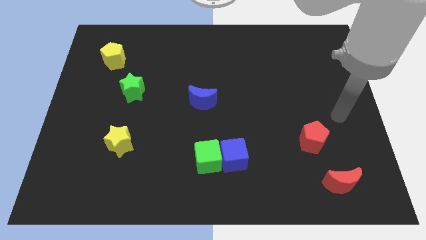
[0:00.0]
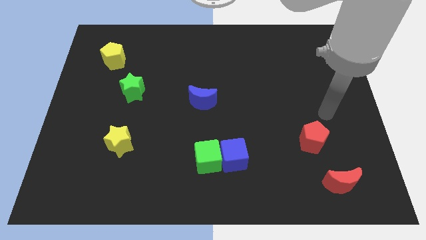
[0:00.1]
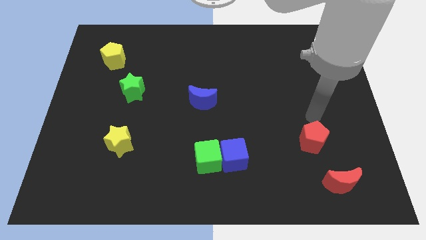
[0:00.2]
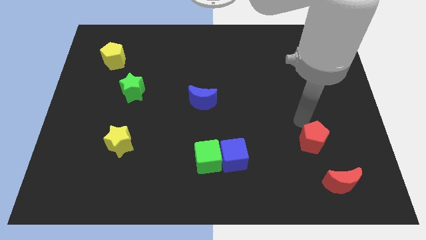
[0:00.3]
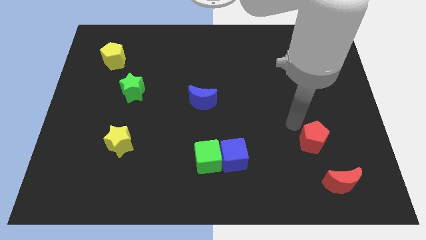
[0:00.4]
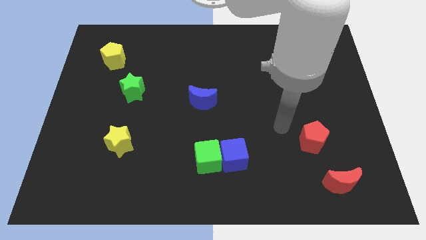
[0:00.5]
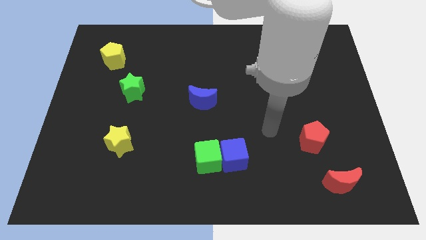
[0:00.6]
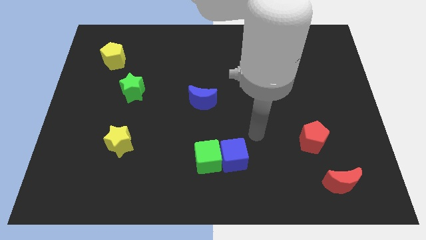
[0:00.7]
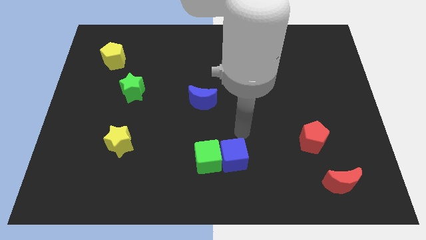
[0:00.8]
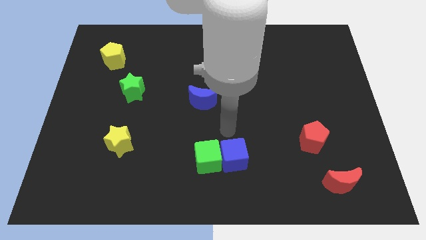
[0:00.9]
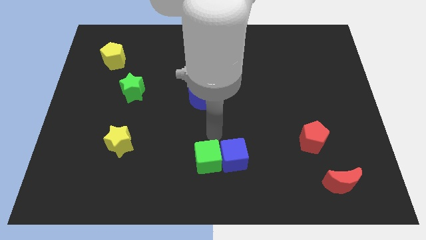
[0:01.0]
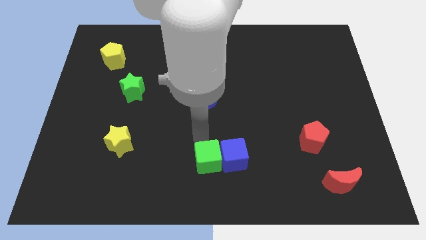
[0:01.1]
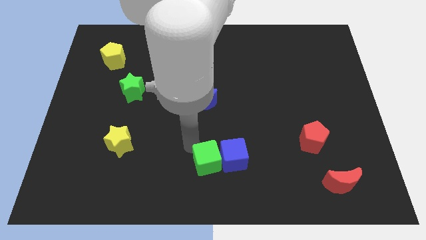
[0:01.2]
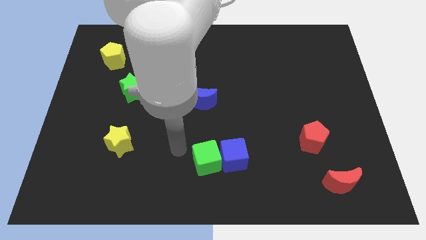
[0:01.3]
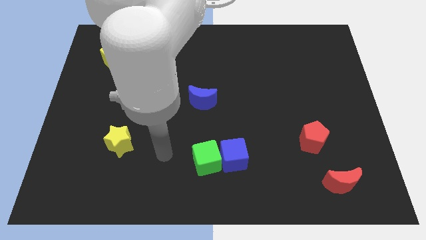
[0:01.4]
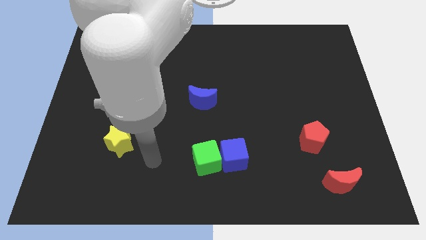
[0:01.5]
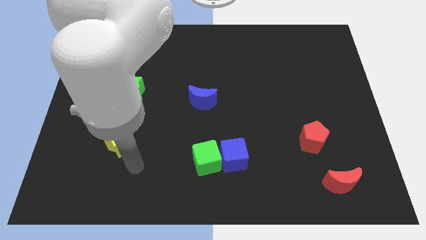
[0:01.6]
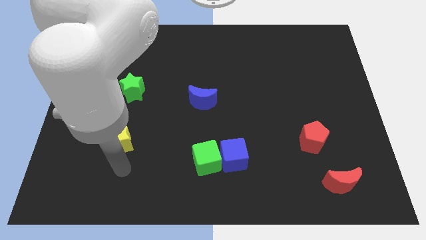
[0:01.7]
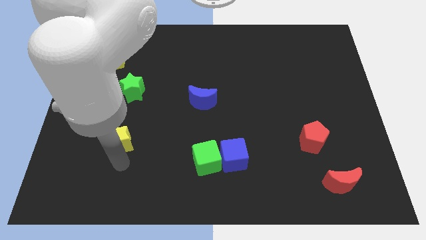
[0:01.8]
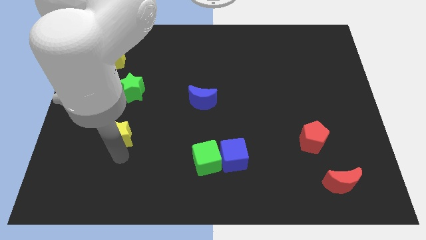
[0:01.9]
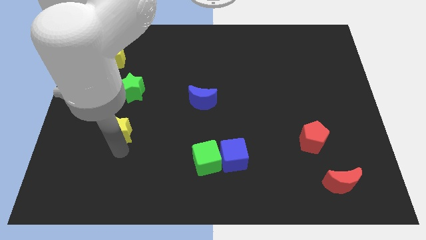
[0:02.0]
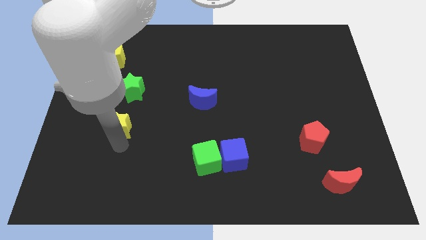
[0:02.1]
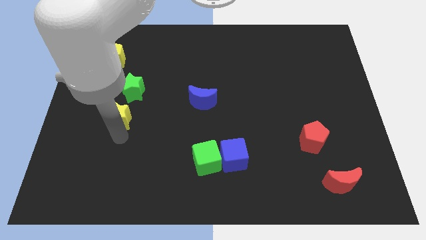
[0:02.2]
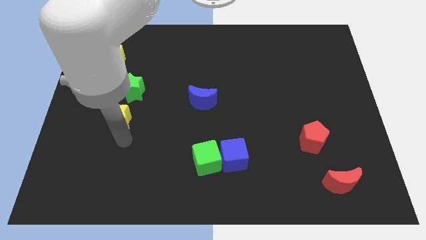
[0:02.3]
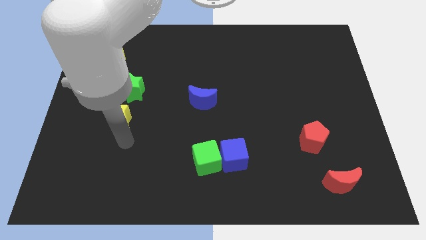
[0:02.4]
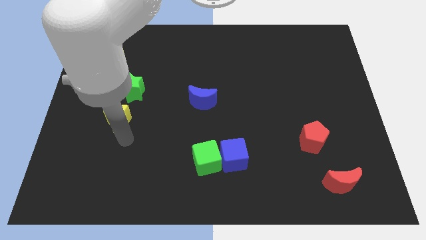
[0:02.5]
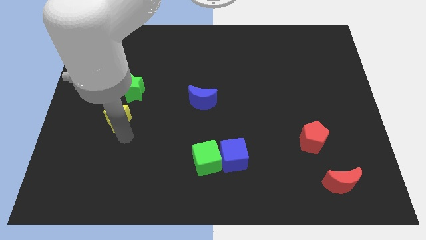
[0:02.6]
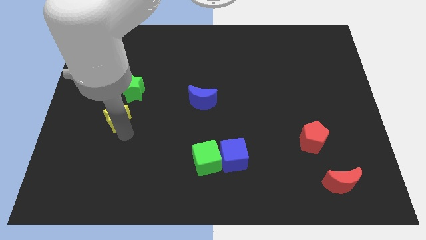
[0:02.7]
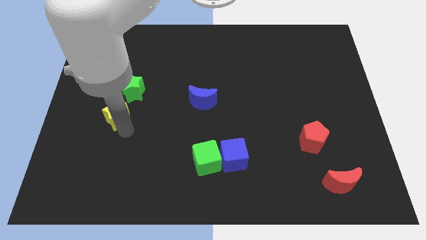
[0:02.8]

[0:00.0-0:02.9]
move the yellow star up a little bit

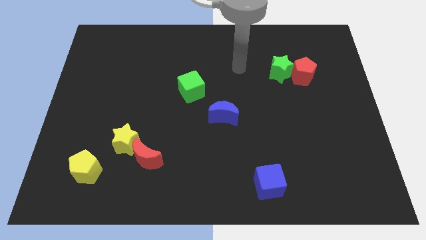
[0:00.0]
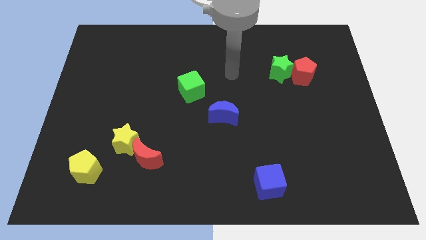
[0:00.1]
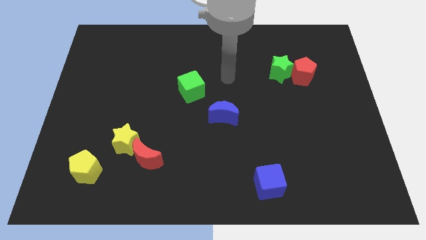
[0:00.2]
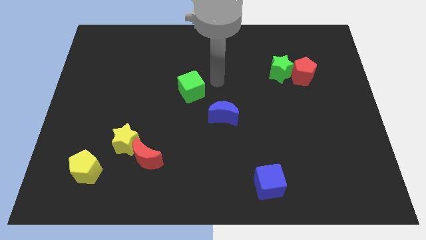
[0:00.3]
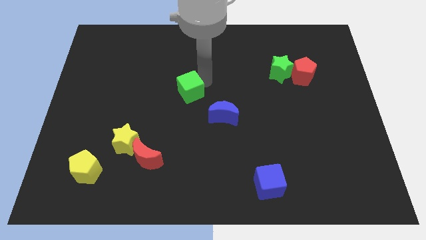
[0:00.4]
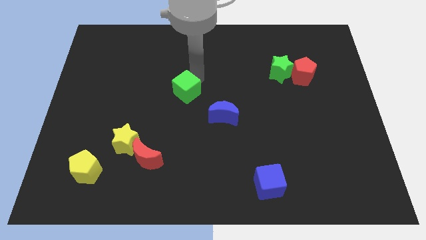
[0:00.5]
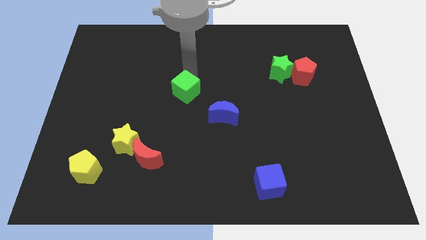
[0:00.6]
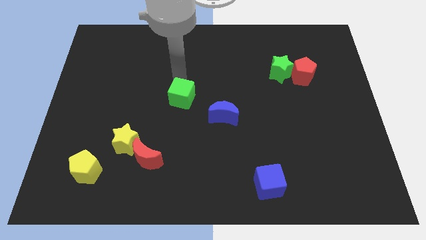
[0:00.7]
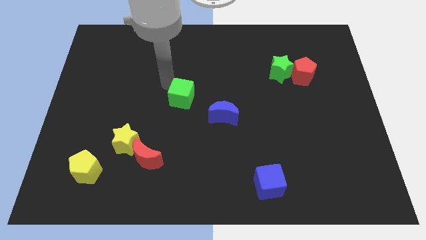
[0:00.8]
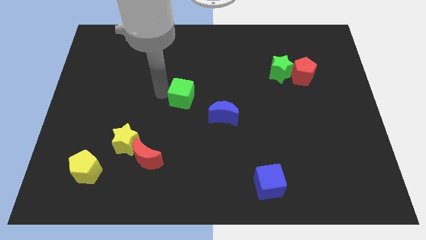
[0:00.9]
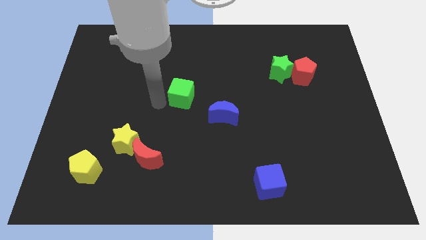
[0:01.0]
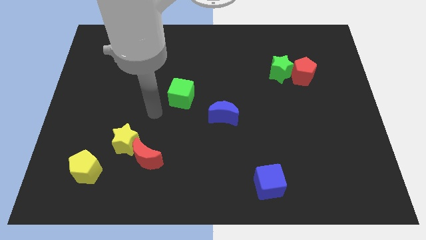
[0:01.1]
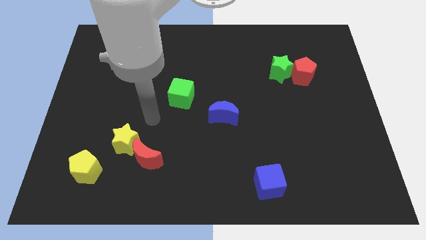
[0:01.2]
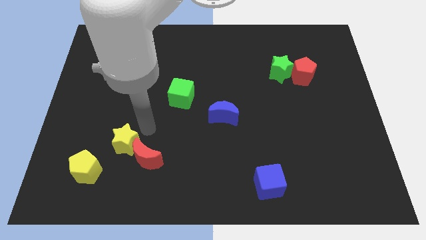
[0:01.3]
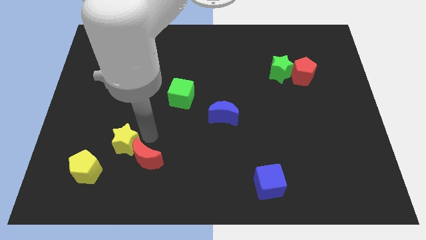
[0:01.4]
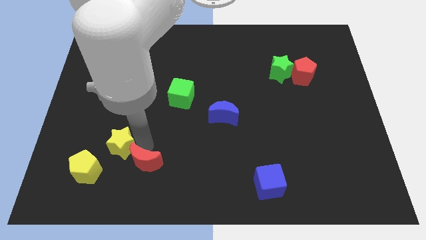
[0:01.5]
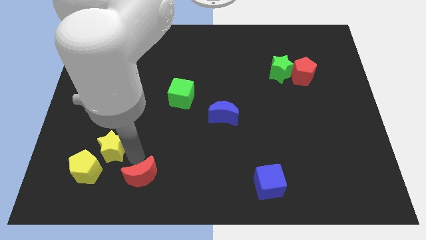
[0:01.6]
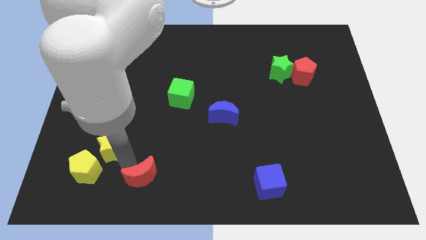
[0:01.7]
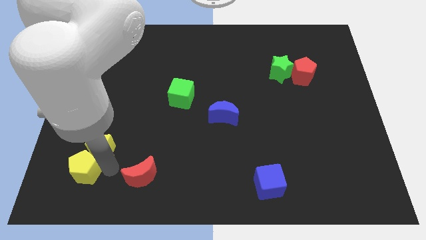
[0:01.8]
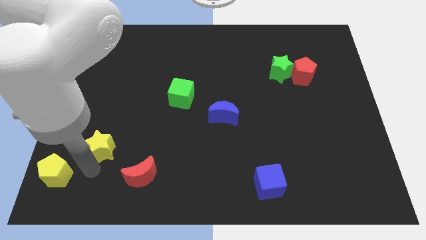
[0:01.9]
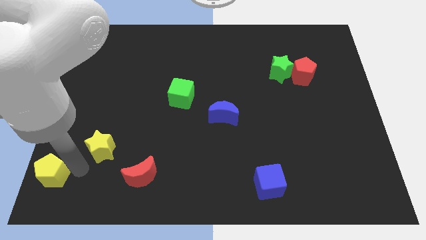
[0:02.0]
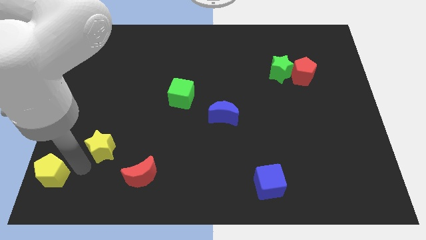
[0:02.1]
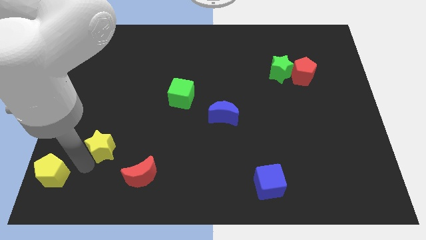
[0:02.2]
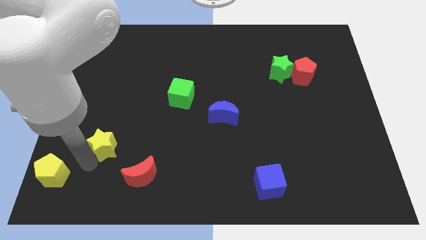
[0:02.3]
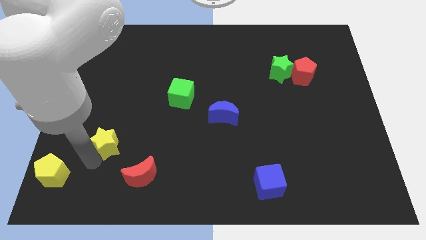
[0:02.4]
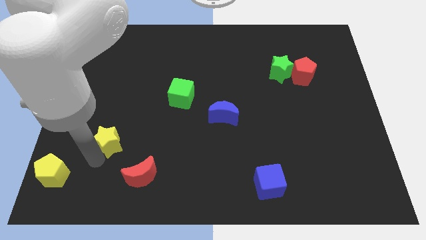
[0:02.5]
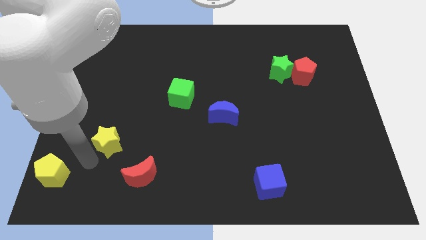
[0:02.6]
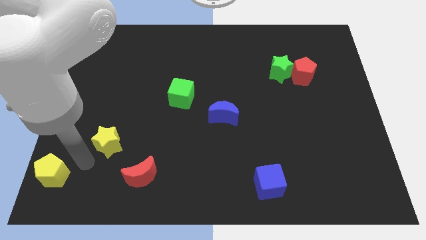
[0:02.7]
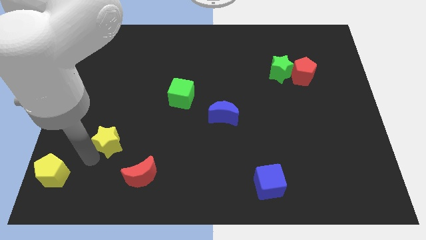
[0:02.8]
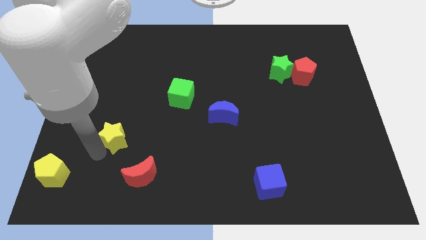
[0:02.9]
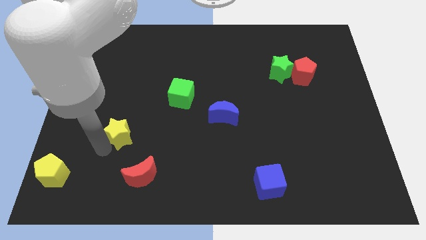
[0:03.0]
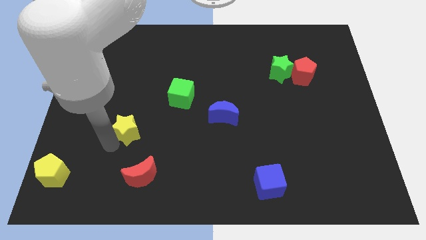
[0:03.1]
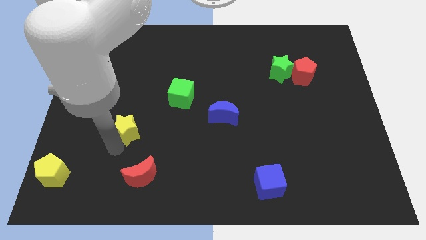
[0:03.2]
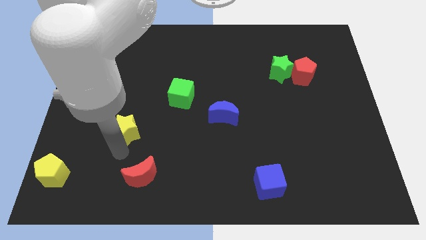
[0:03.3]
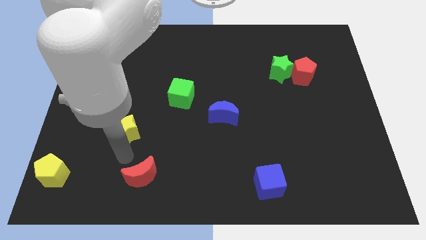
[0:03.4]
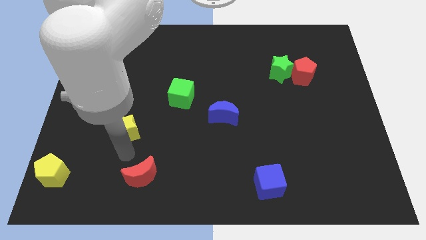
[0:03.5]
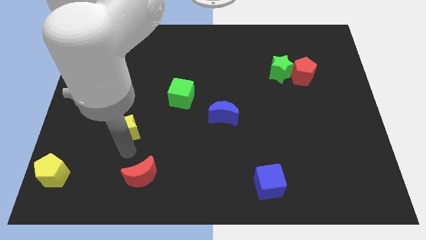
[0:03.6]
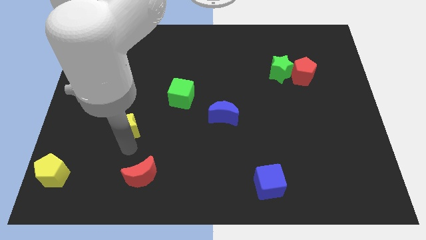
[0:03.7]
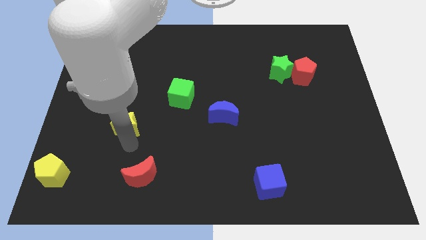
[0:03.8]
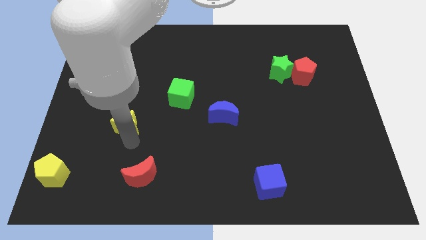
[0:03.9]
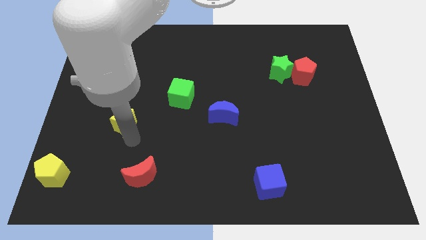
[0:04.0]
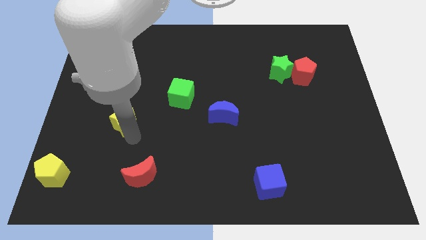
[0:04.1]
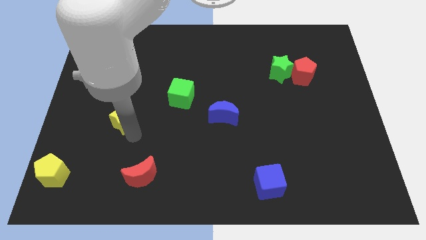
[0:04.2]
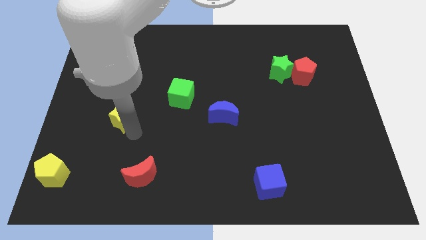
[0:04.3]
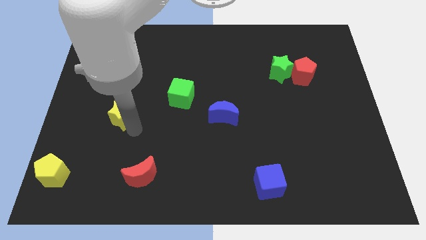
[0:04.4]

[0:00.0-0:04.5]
slightly slide the yellow star up

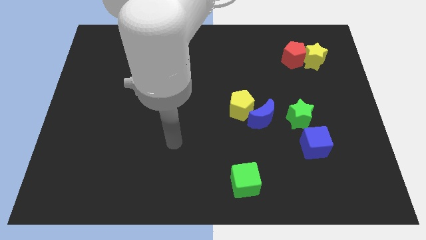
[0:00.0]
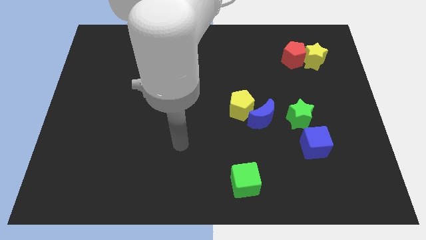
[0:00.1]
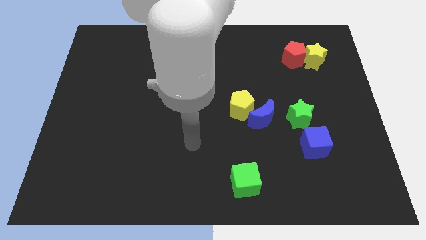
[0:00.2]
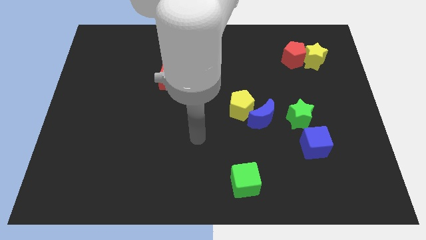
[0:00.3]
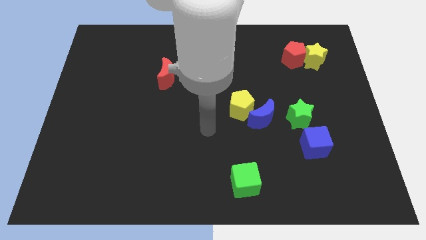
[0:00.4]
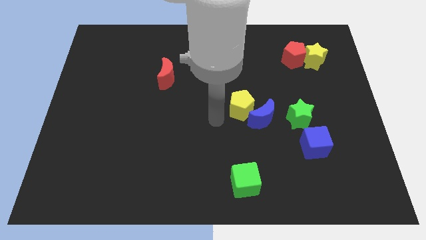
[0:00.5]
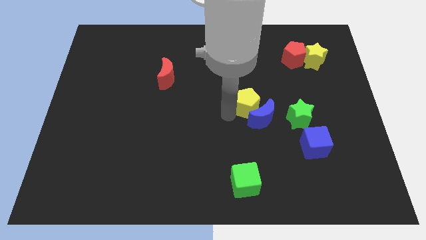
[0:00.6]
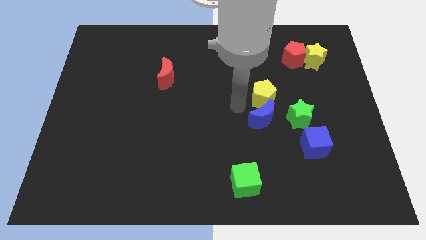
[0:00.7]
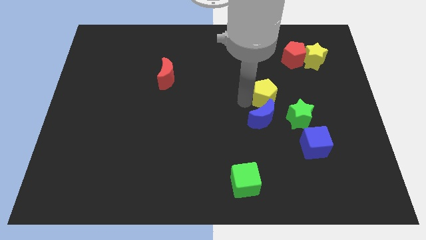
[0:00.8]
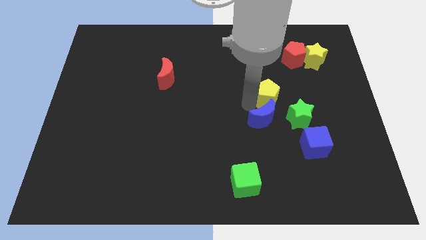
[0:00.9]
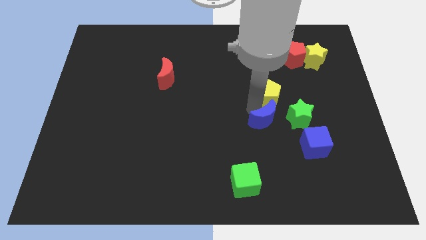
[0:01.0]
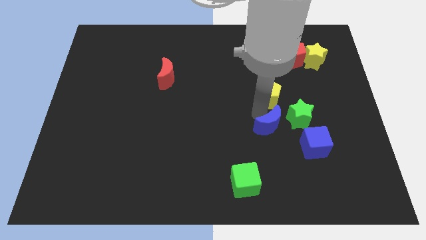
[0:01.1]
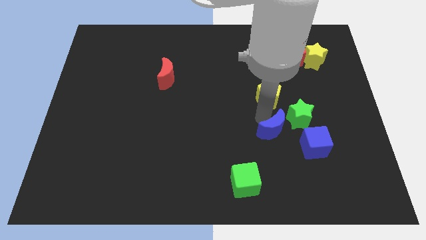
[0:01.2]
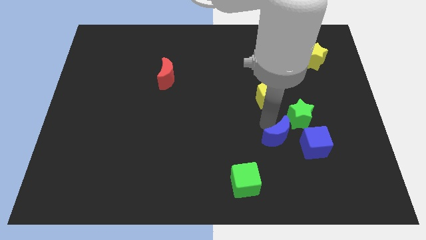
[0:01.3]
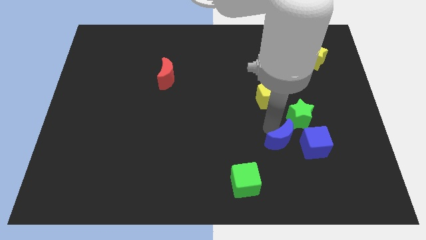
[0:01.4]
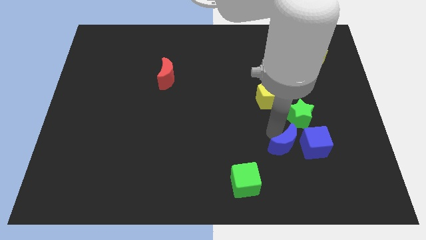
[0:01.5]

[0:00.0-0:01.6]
move the blue moon slightly down and to the right diagonally
